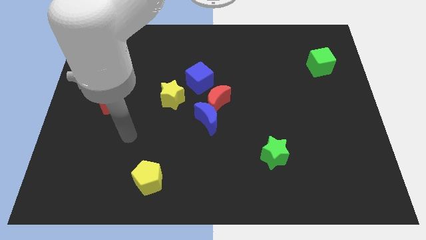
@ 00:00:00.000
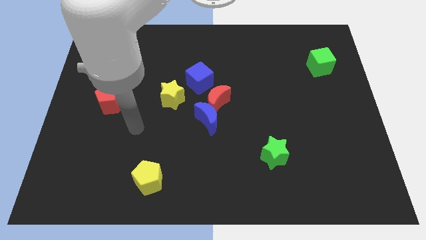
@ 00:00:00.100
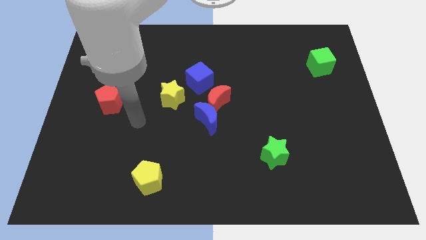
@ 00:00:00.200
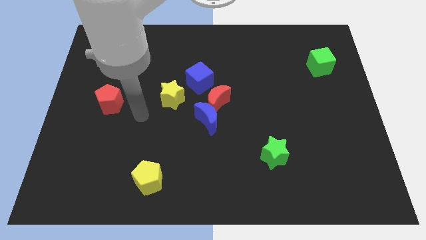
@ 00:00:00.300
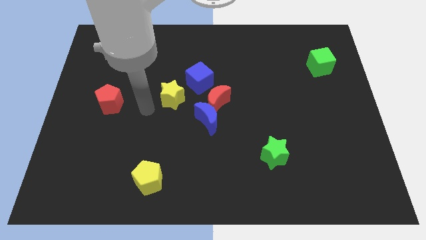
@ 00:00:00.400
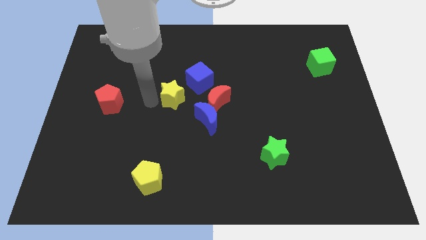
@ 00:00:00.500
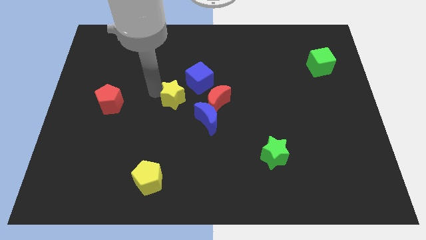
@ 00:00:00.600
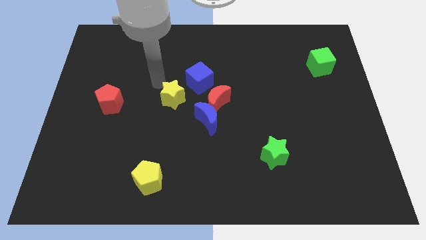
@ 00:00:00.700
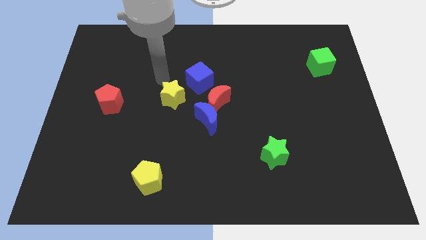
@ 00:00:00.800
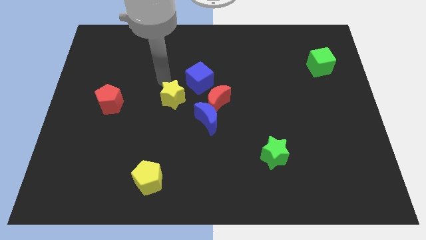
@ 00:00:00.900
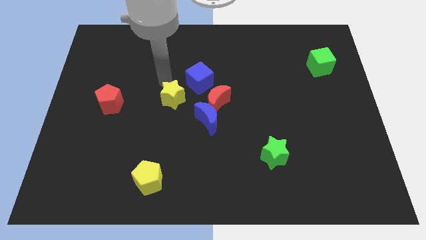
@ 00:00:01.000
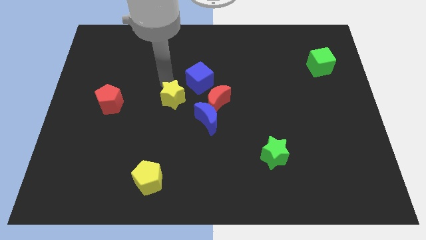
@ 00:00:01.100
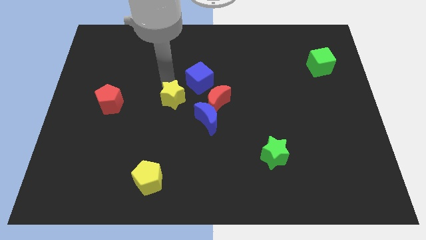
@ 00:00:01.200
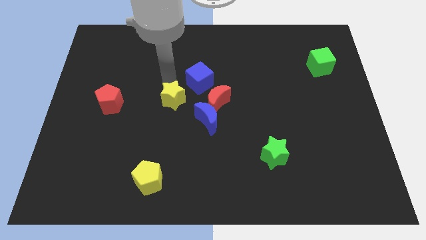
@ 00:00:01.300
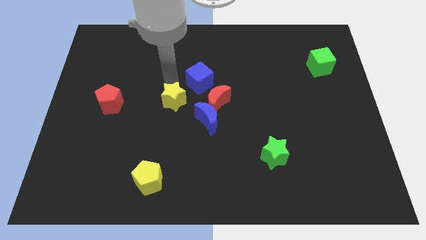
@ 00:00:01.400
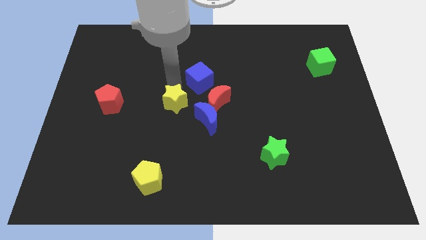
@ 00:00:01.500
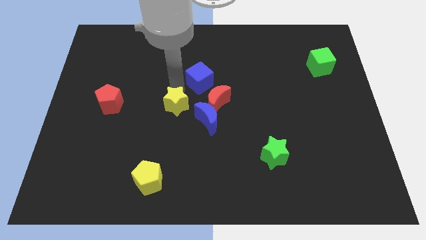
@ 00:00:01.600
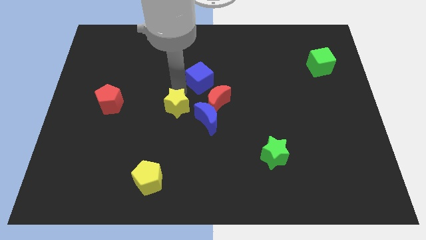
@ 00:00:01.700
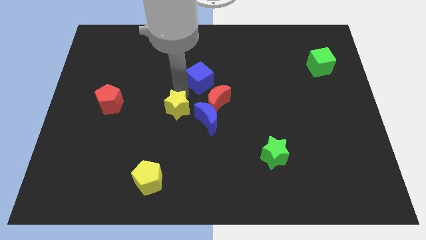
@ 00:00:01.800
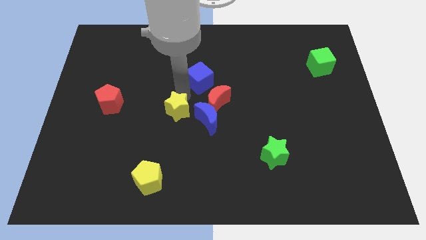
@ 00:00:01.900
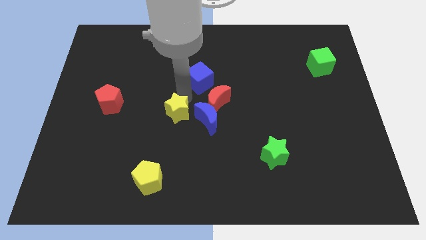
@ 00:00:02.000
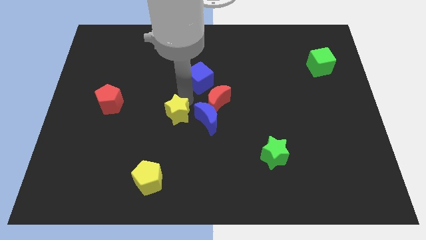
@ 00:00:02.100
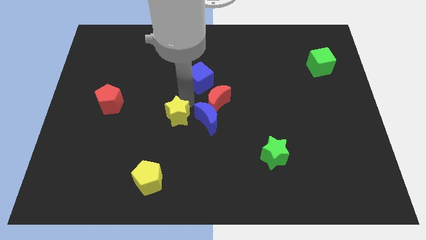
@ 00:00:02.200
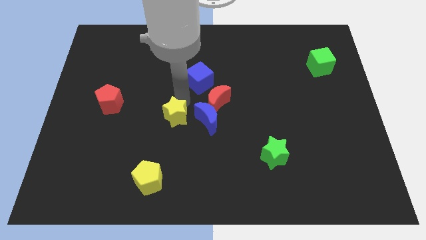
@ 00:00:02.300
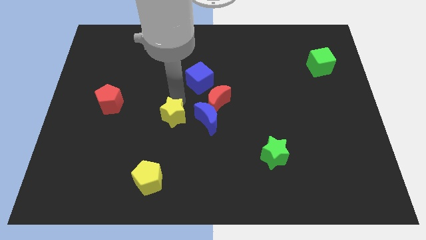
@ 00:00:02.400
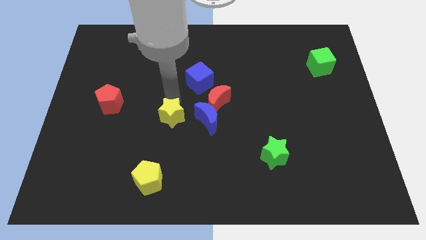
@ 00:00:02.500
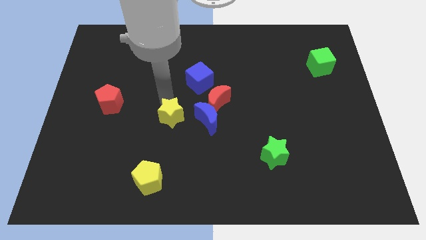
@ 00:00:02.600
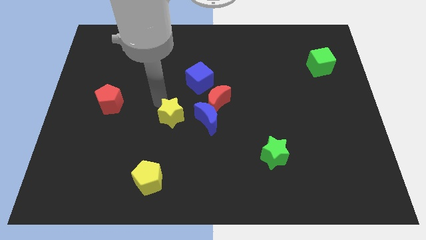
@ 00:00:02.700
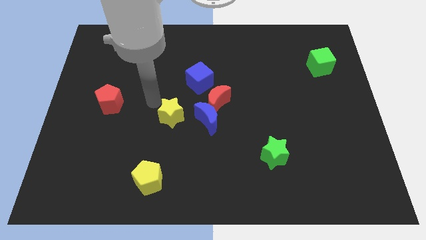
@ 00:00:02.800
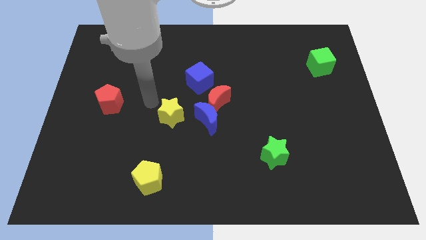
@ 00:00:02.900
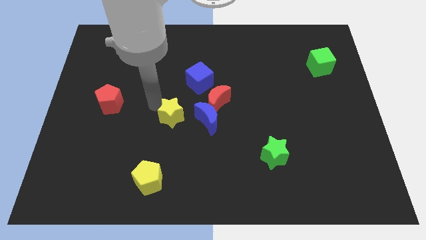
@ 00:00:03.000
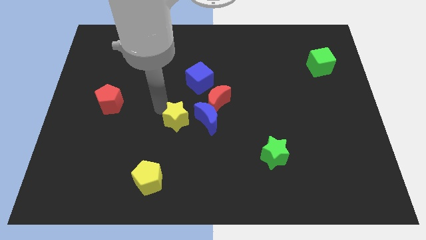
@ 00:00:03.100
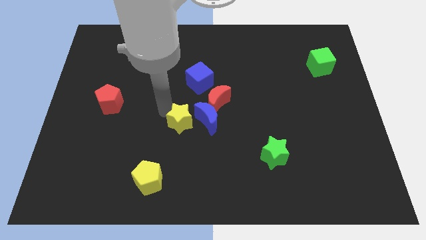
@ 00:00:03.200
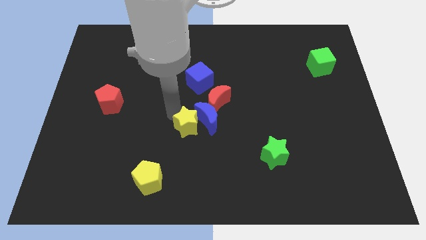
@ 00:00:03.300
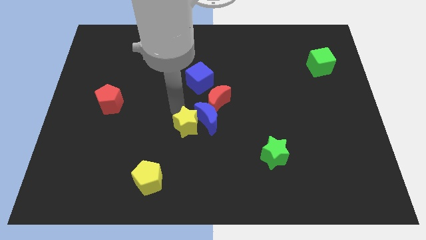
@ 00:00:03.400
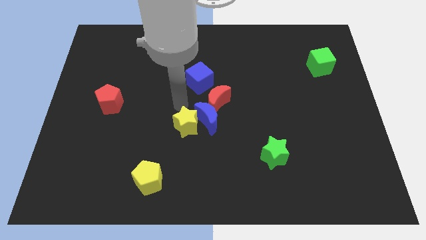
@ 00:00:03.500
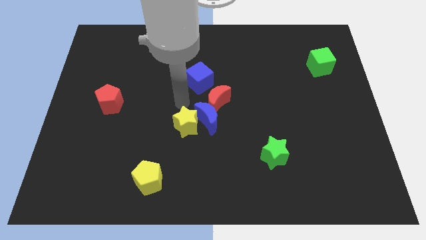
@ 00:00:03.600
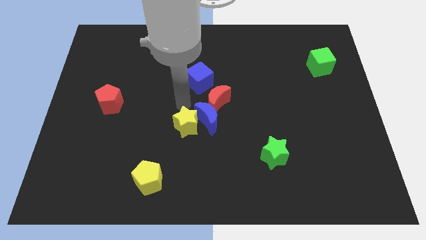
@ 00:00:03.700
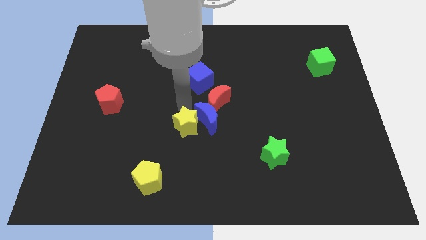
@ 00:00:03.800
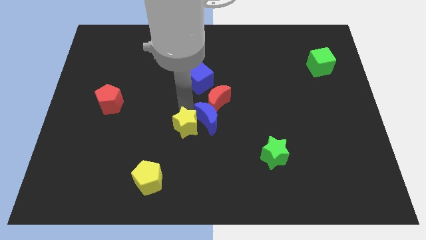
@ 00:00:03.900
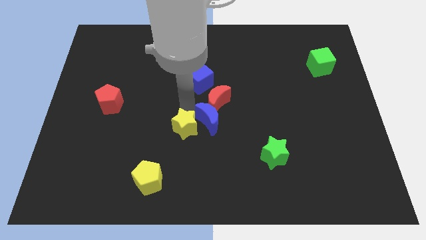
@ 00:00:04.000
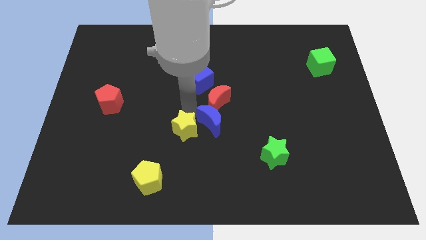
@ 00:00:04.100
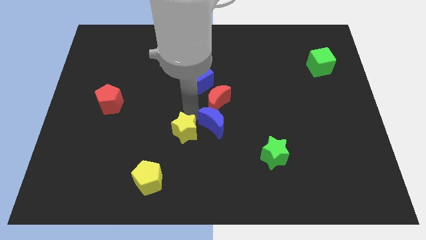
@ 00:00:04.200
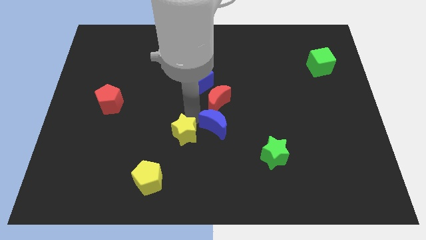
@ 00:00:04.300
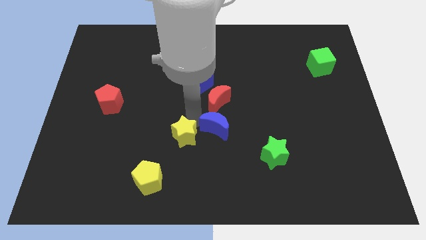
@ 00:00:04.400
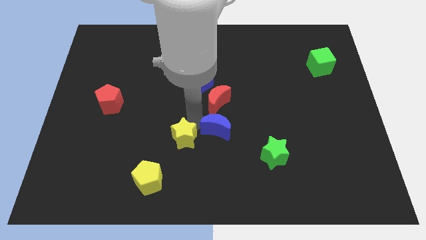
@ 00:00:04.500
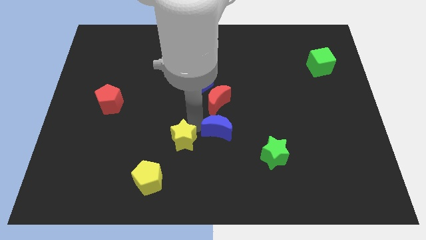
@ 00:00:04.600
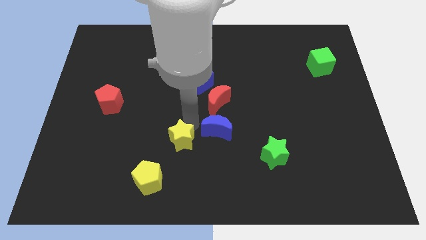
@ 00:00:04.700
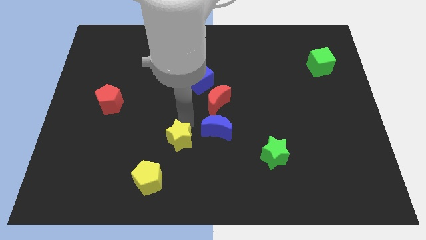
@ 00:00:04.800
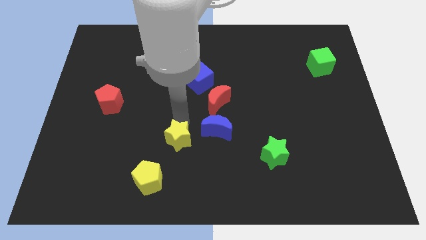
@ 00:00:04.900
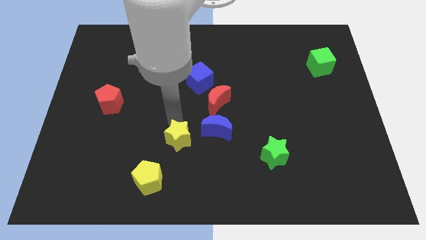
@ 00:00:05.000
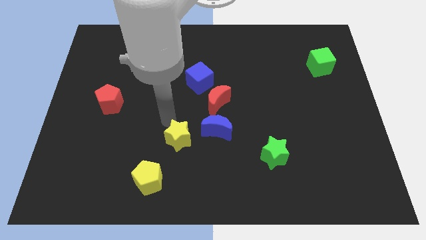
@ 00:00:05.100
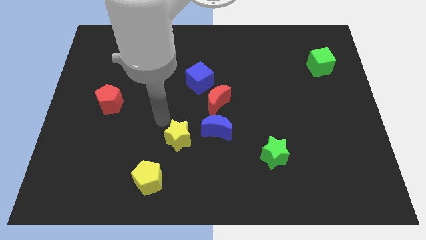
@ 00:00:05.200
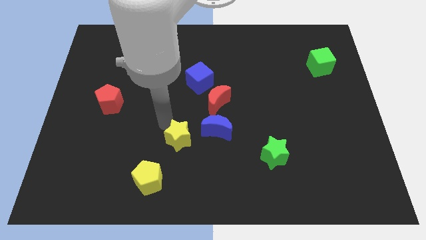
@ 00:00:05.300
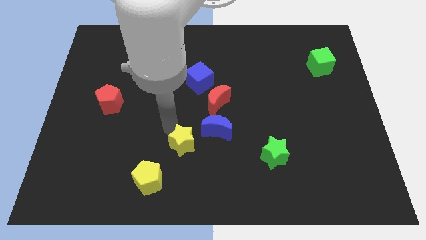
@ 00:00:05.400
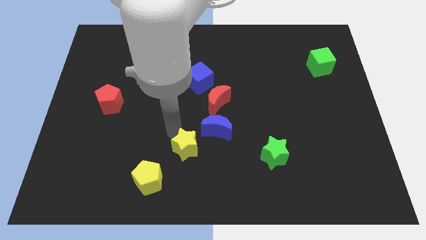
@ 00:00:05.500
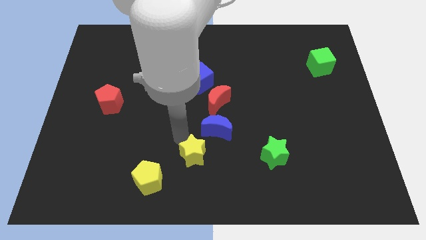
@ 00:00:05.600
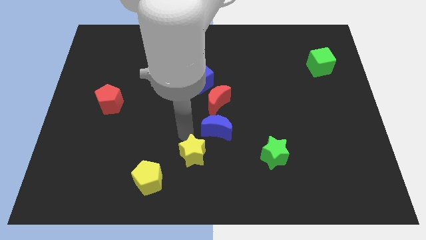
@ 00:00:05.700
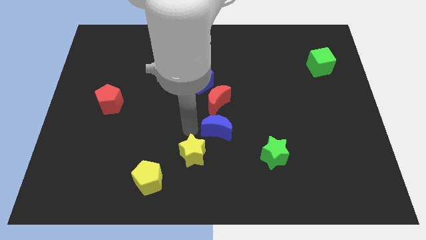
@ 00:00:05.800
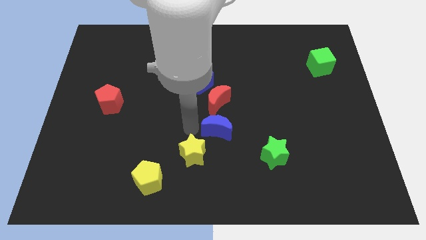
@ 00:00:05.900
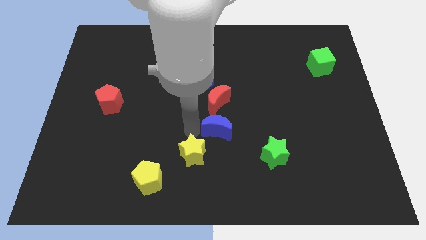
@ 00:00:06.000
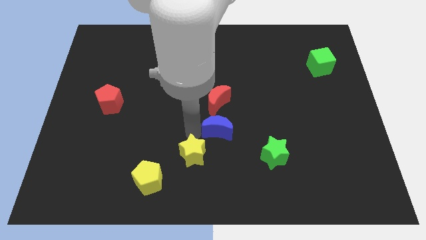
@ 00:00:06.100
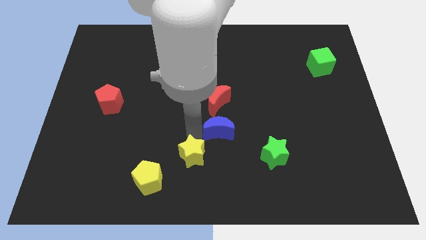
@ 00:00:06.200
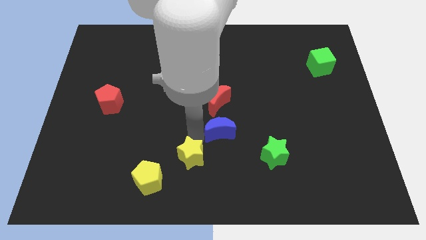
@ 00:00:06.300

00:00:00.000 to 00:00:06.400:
move the yellow star to the bottom

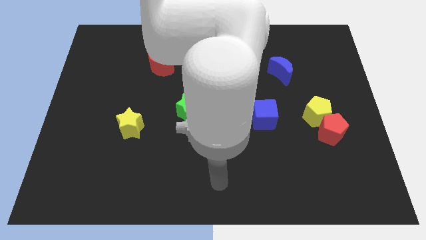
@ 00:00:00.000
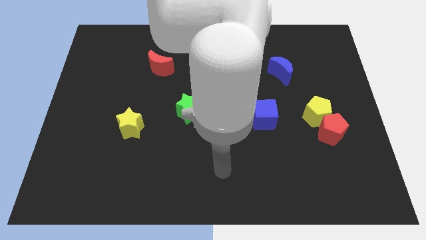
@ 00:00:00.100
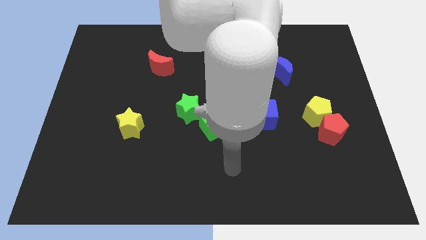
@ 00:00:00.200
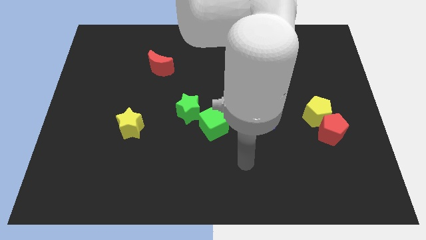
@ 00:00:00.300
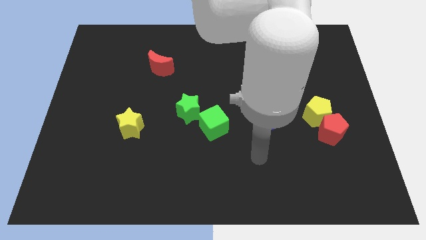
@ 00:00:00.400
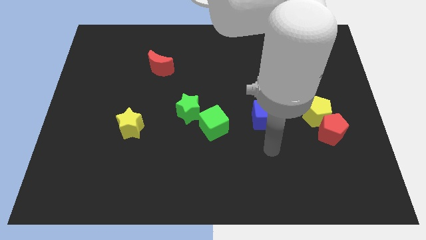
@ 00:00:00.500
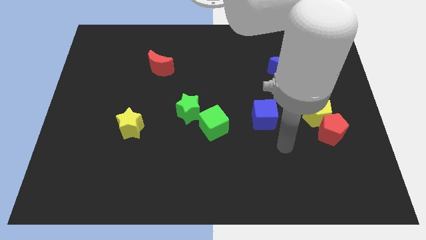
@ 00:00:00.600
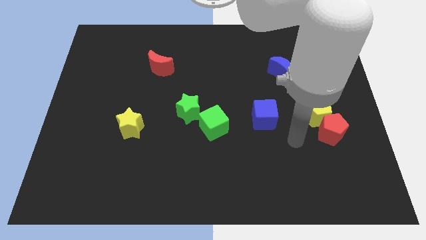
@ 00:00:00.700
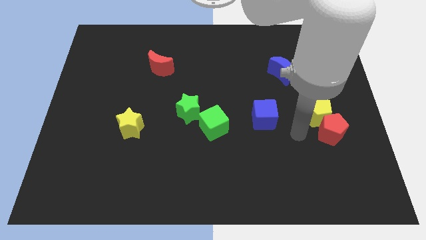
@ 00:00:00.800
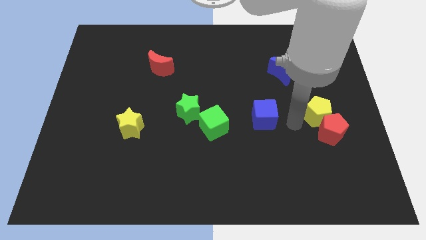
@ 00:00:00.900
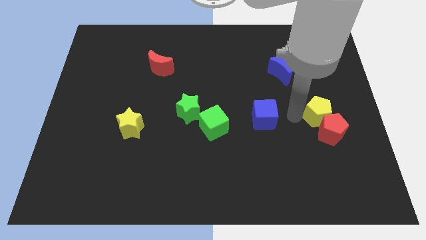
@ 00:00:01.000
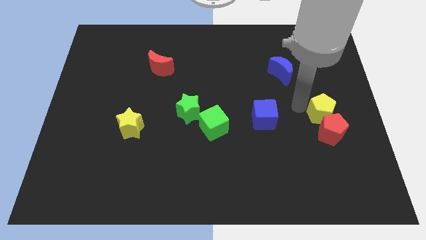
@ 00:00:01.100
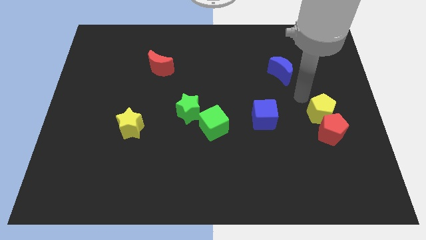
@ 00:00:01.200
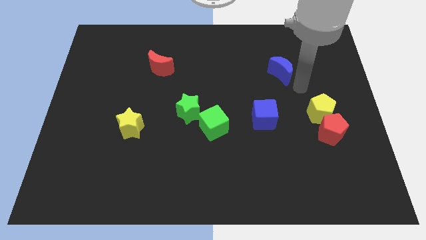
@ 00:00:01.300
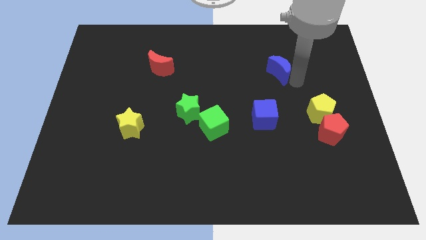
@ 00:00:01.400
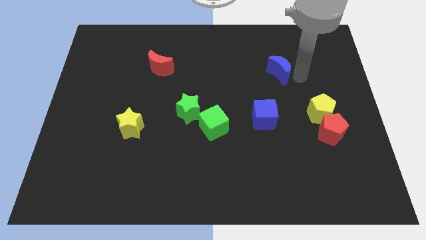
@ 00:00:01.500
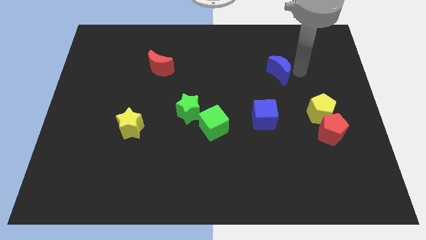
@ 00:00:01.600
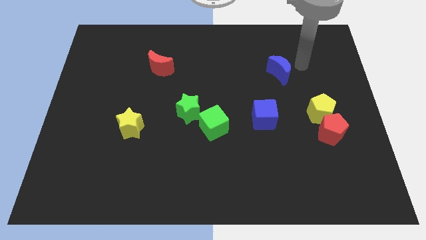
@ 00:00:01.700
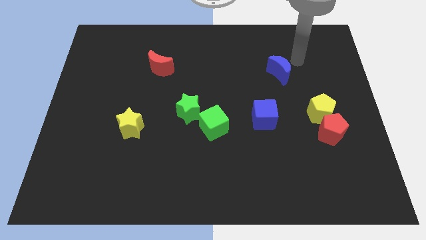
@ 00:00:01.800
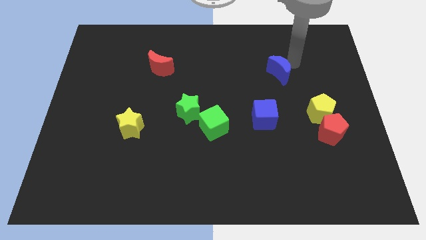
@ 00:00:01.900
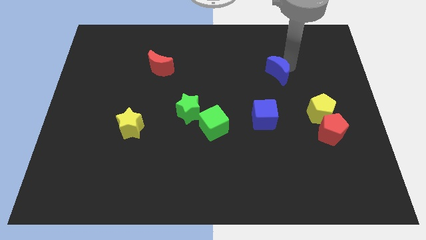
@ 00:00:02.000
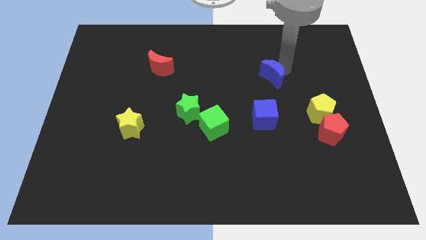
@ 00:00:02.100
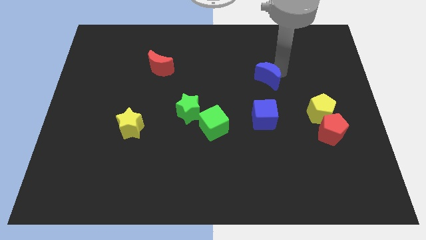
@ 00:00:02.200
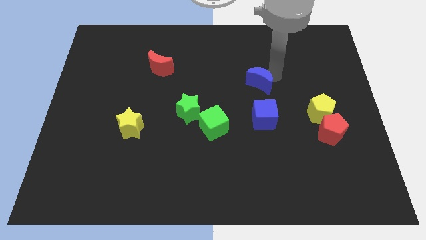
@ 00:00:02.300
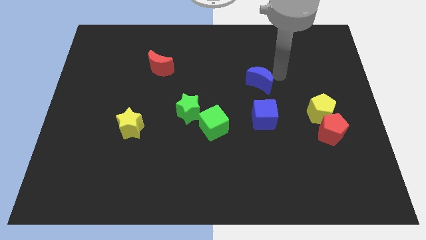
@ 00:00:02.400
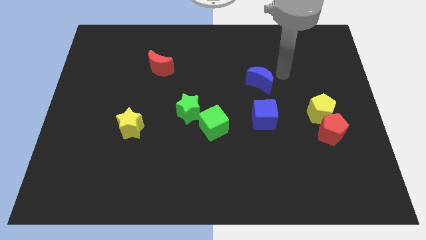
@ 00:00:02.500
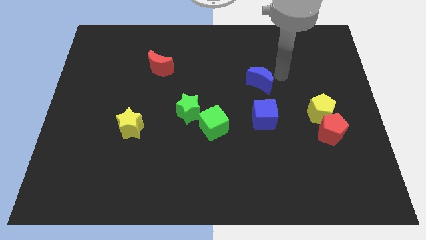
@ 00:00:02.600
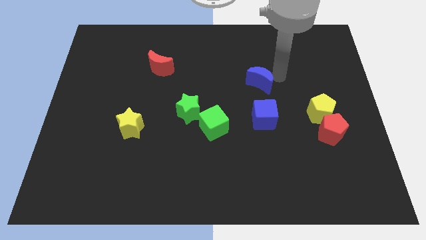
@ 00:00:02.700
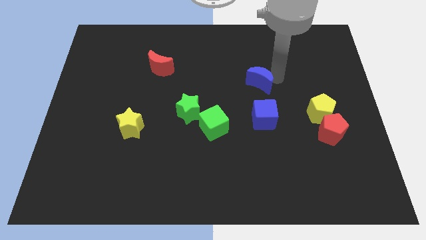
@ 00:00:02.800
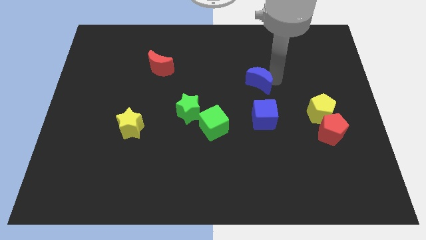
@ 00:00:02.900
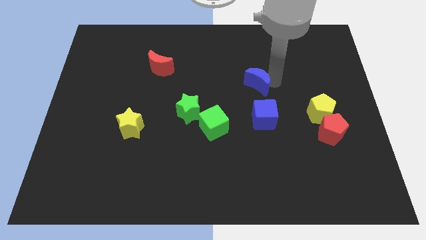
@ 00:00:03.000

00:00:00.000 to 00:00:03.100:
move the blue moon to the center of the board
